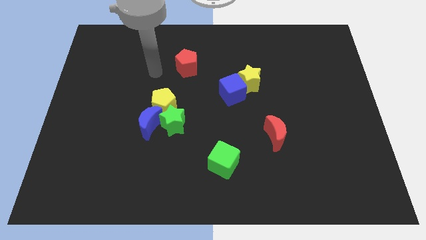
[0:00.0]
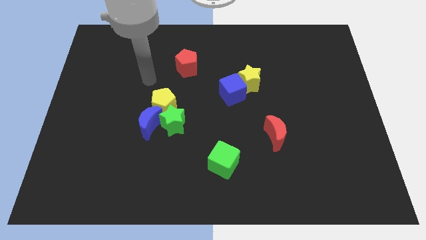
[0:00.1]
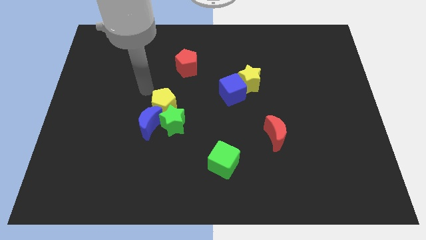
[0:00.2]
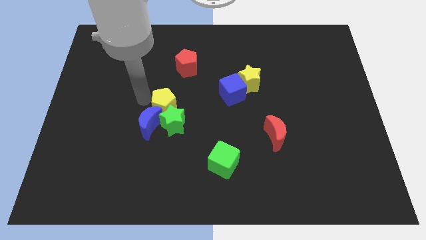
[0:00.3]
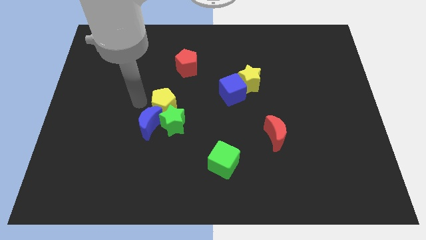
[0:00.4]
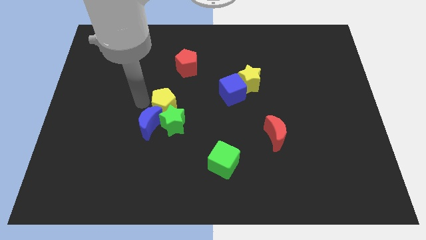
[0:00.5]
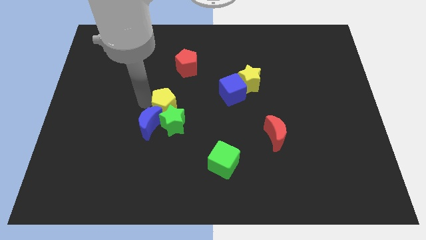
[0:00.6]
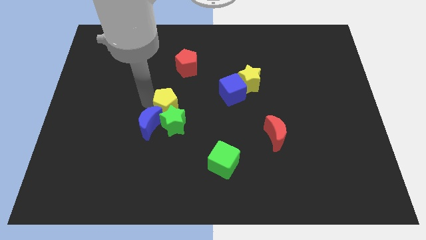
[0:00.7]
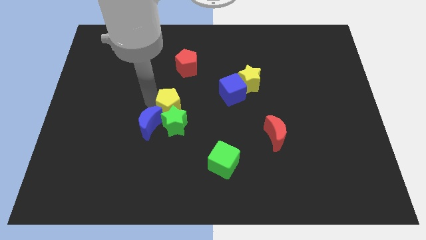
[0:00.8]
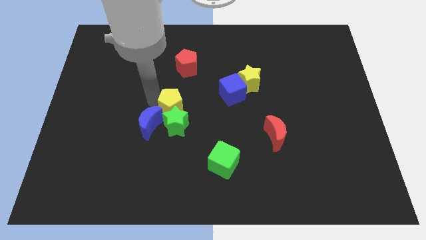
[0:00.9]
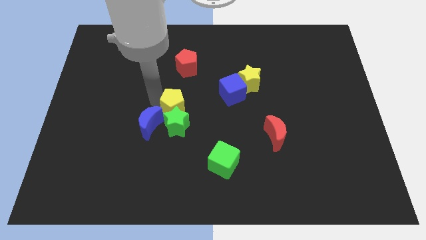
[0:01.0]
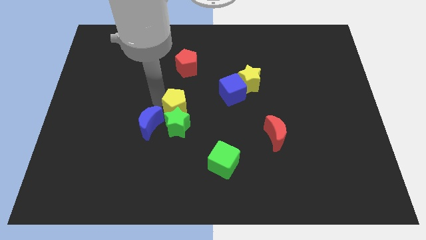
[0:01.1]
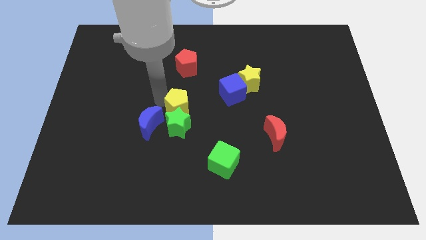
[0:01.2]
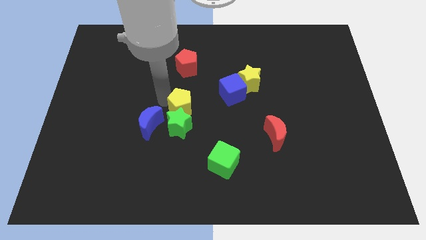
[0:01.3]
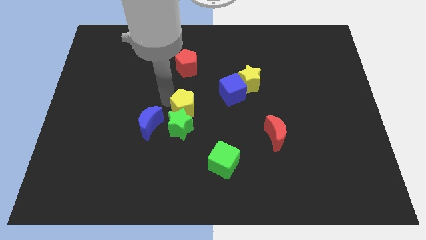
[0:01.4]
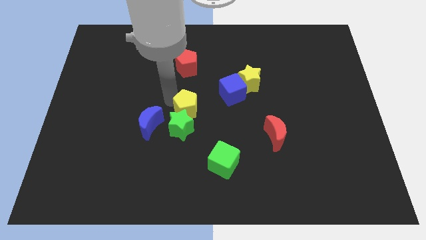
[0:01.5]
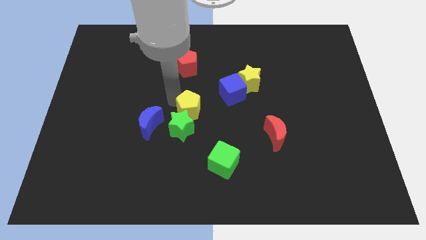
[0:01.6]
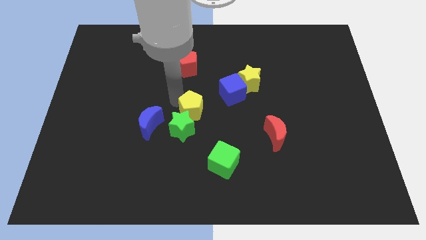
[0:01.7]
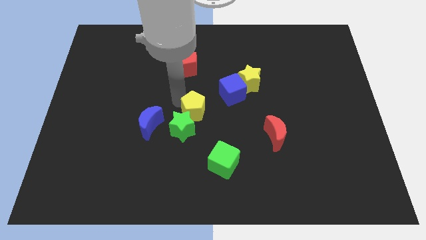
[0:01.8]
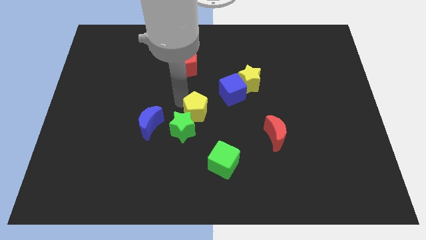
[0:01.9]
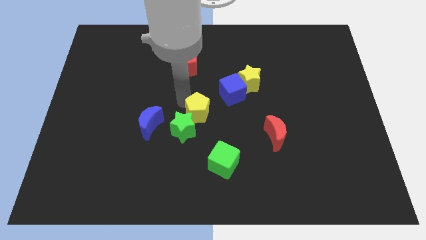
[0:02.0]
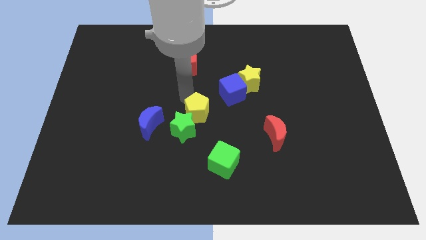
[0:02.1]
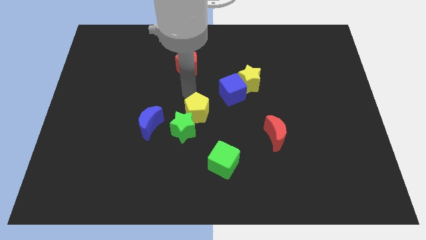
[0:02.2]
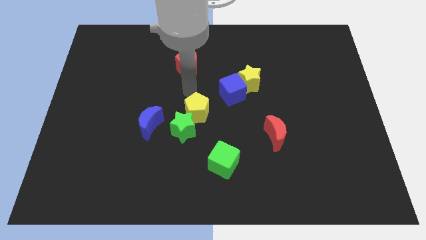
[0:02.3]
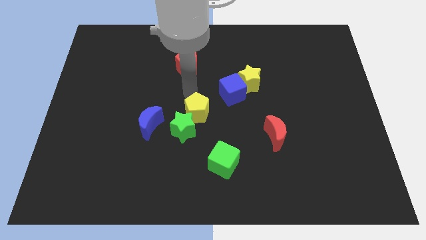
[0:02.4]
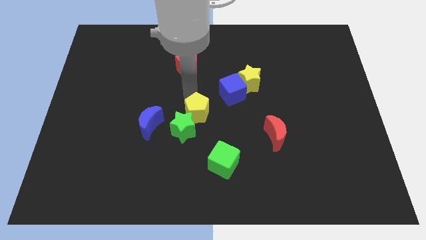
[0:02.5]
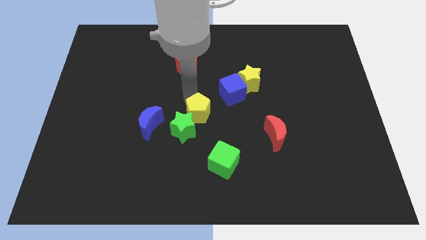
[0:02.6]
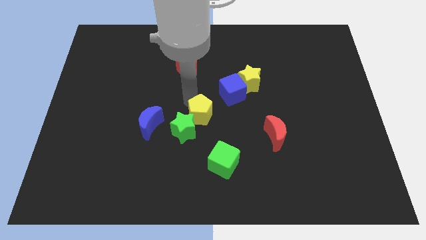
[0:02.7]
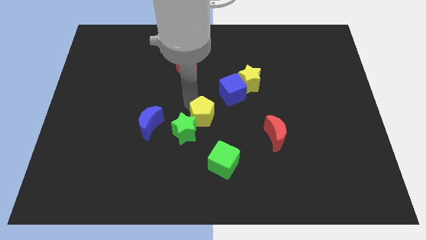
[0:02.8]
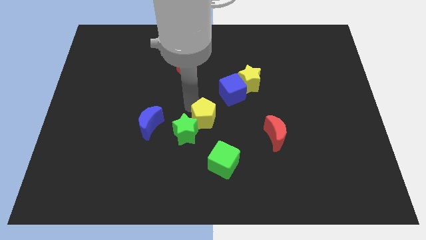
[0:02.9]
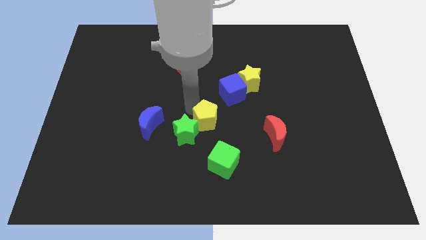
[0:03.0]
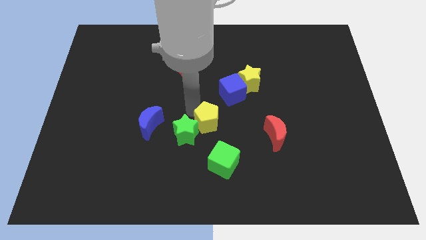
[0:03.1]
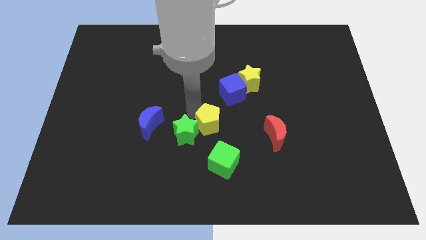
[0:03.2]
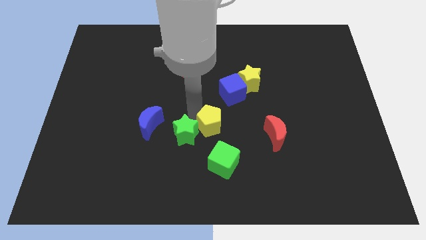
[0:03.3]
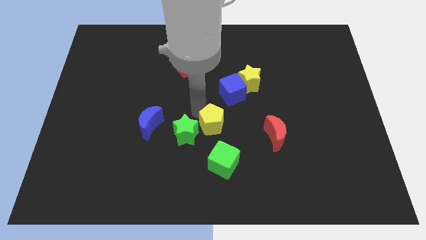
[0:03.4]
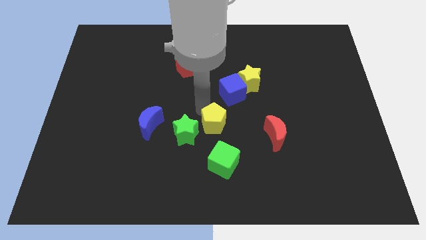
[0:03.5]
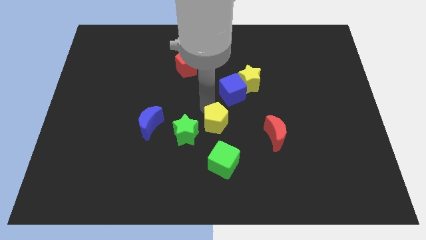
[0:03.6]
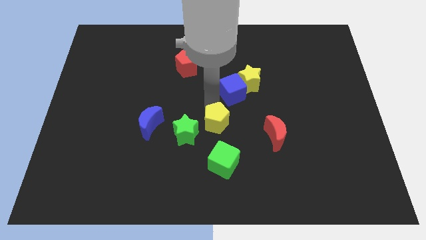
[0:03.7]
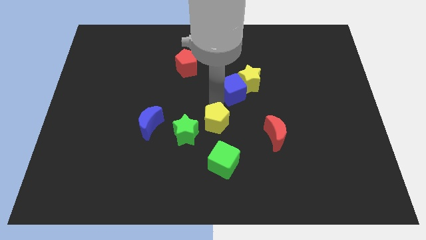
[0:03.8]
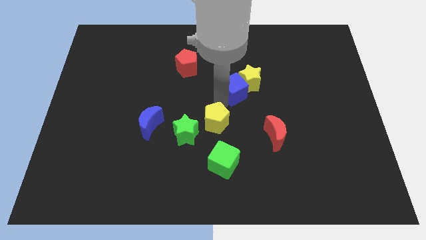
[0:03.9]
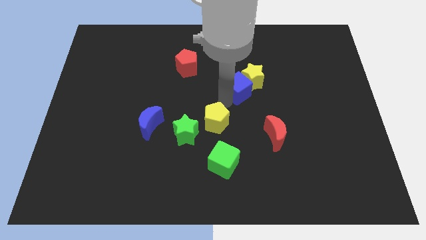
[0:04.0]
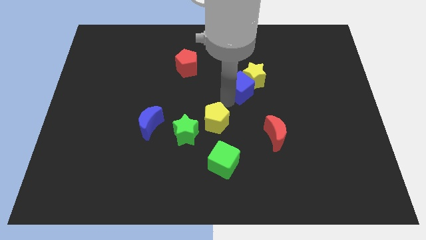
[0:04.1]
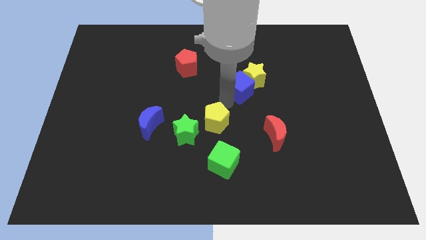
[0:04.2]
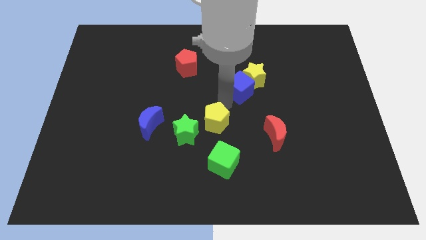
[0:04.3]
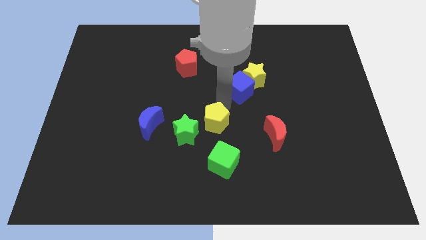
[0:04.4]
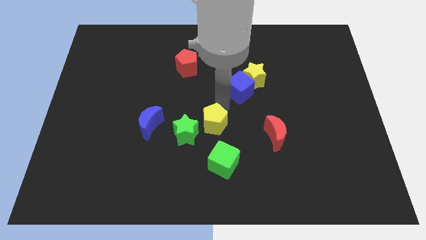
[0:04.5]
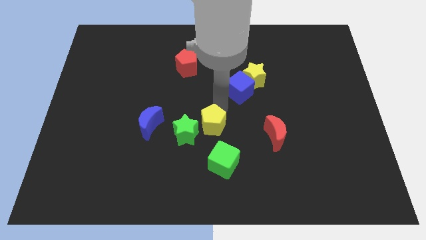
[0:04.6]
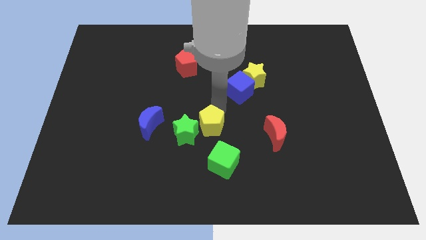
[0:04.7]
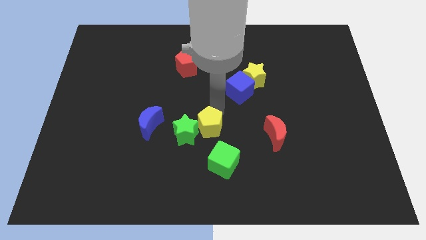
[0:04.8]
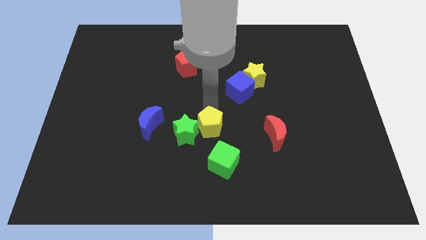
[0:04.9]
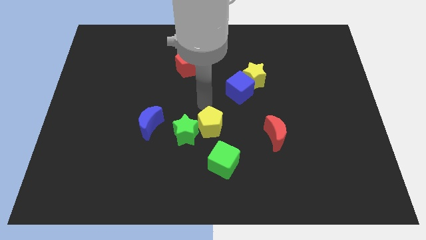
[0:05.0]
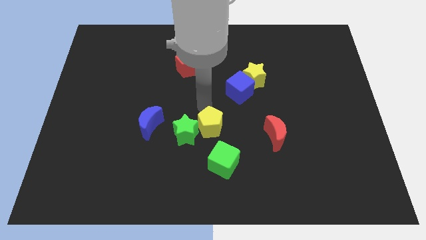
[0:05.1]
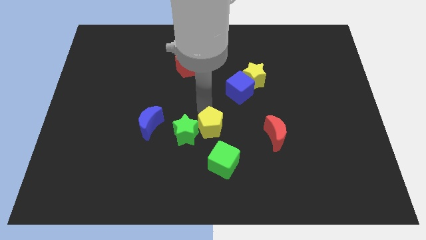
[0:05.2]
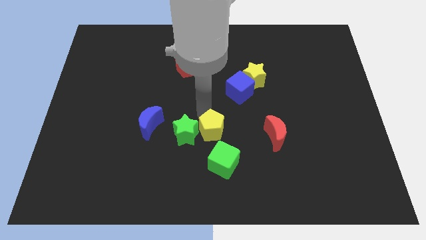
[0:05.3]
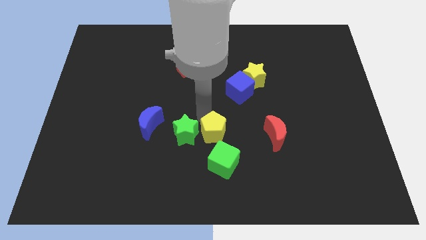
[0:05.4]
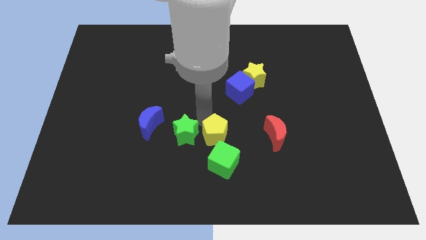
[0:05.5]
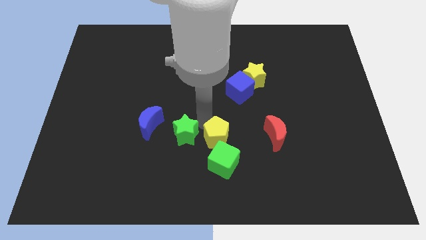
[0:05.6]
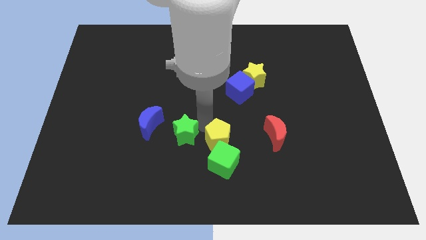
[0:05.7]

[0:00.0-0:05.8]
put the yellow pentagon to the green cube

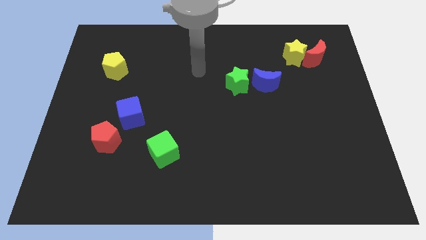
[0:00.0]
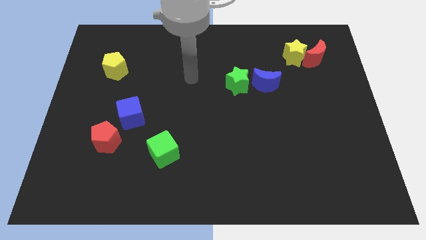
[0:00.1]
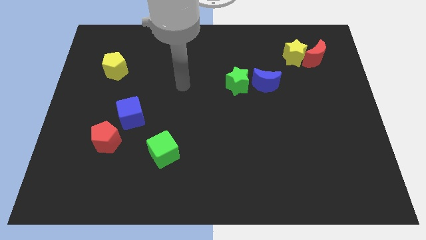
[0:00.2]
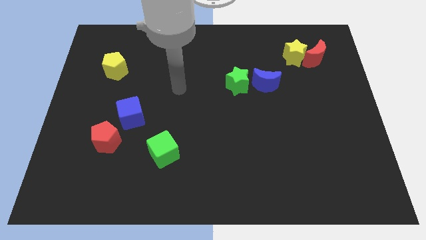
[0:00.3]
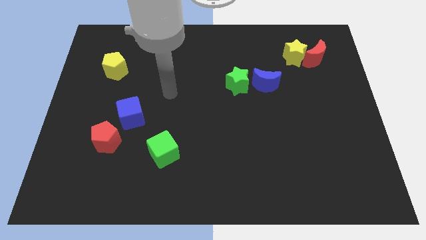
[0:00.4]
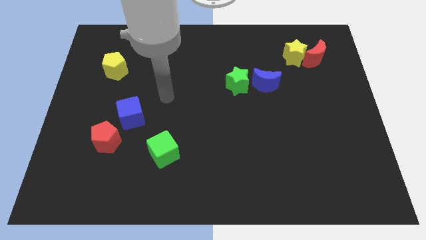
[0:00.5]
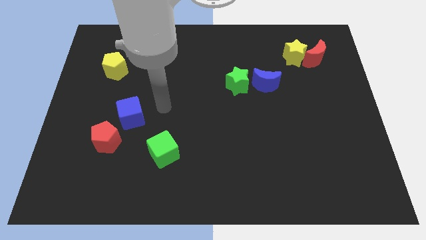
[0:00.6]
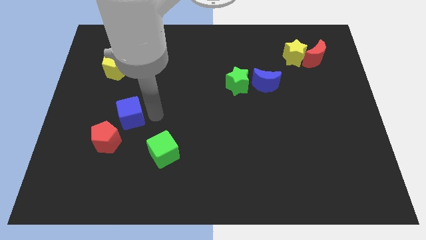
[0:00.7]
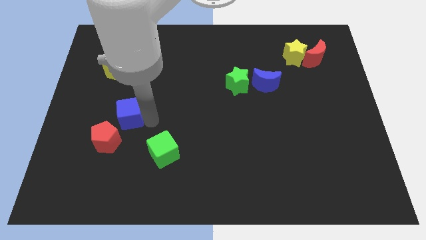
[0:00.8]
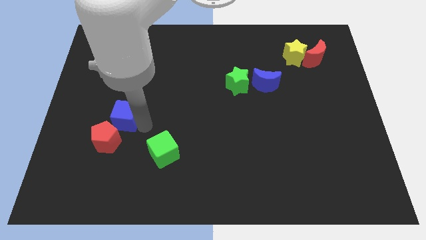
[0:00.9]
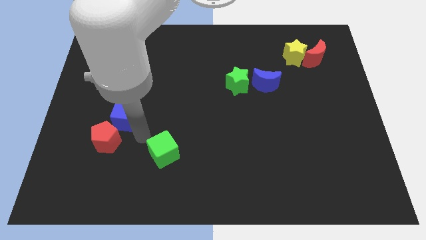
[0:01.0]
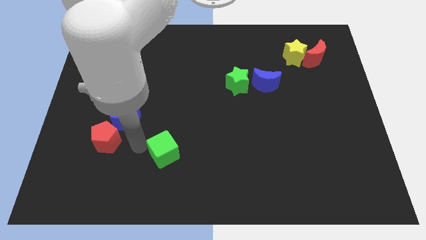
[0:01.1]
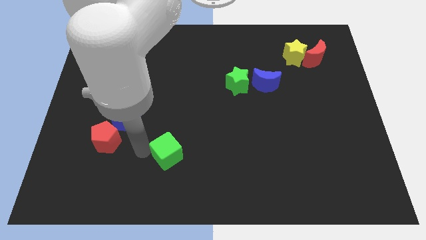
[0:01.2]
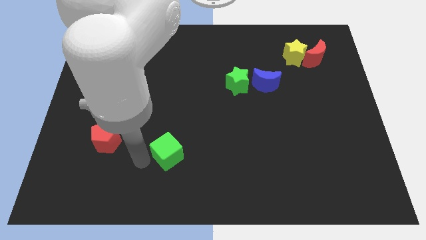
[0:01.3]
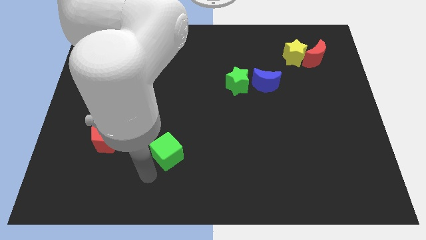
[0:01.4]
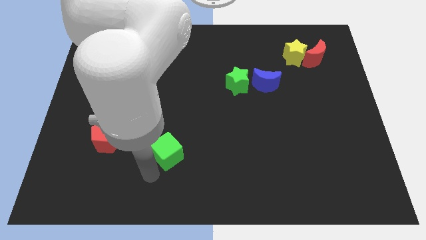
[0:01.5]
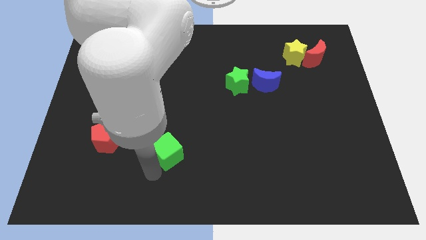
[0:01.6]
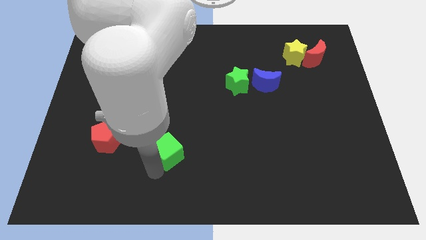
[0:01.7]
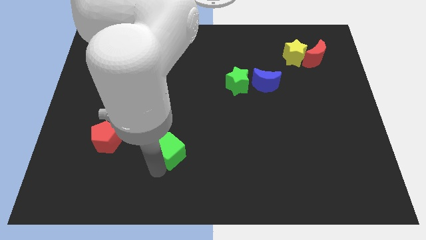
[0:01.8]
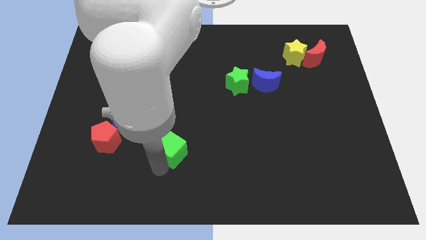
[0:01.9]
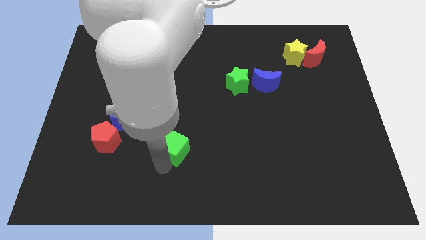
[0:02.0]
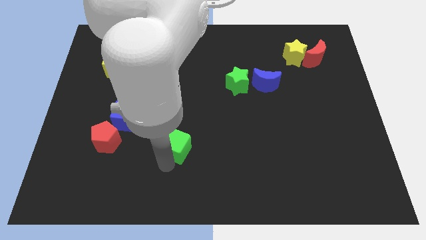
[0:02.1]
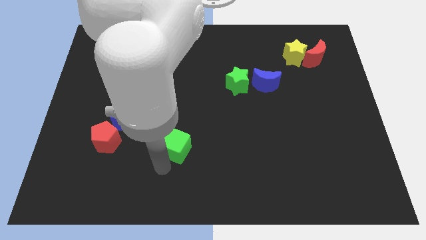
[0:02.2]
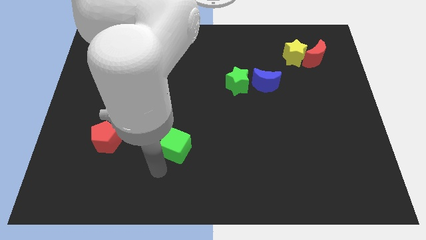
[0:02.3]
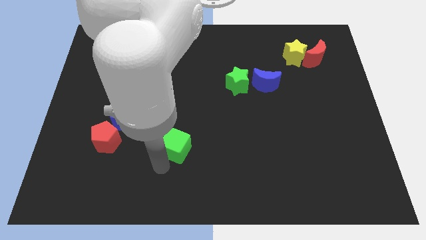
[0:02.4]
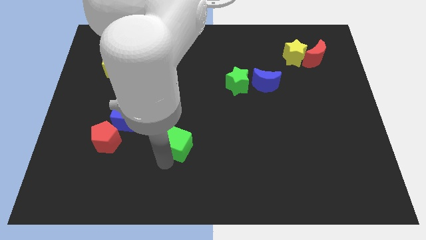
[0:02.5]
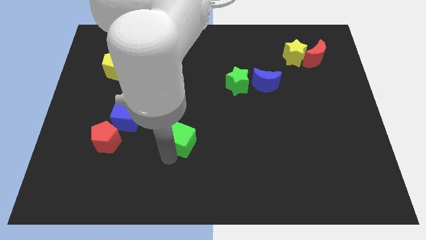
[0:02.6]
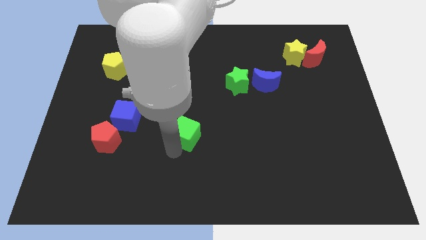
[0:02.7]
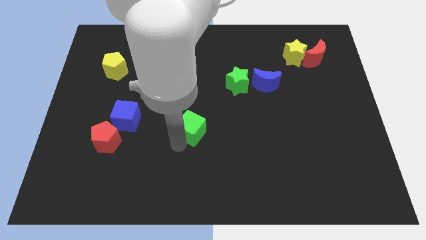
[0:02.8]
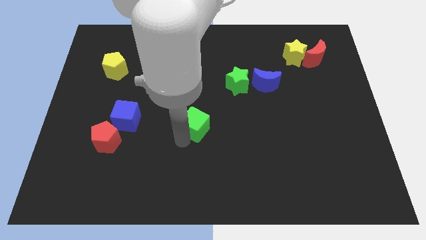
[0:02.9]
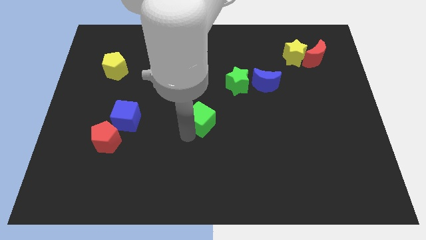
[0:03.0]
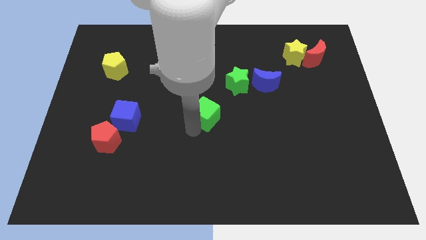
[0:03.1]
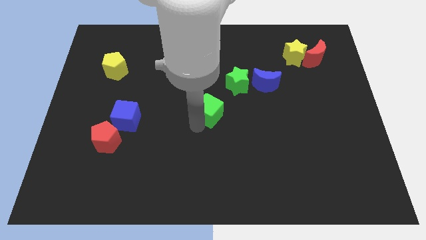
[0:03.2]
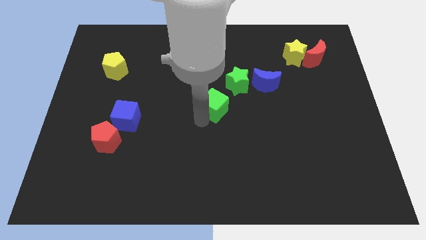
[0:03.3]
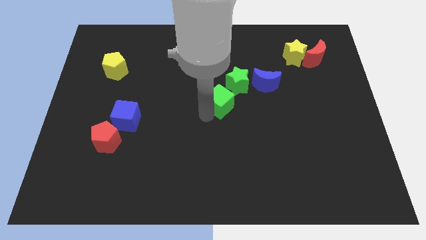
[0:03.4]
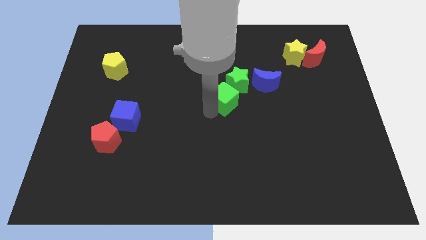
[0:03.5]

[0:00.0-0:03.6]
move the green cube towards the green star
